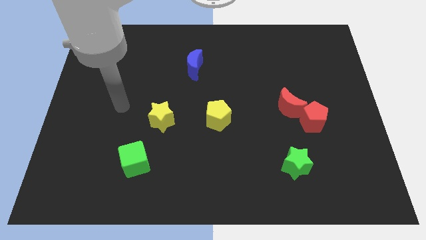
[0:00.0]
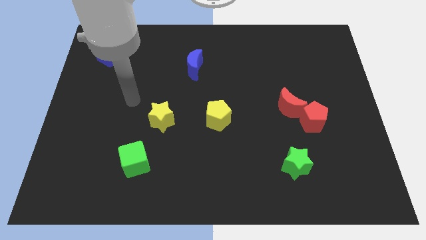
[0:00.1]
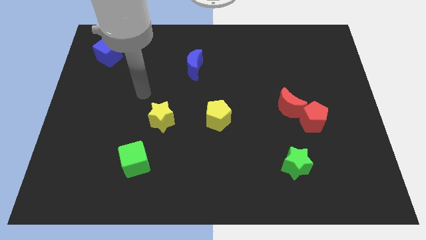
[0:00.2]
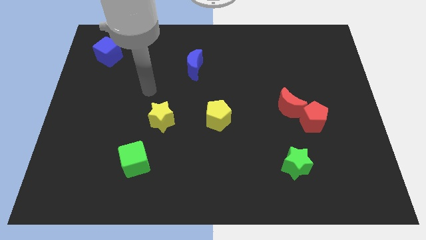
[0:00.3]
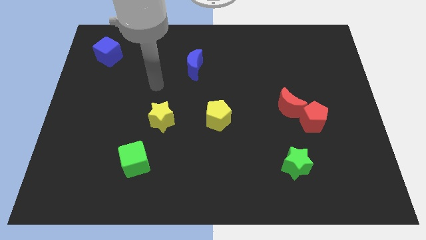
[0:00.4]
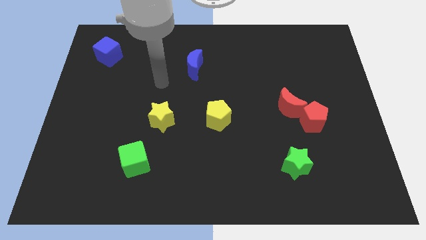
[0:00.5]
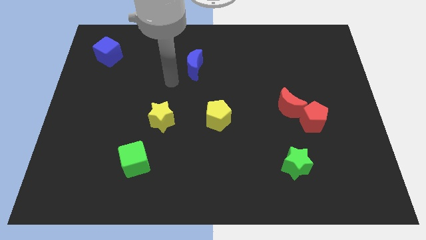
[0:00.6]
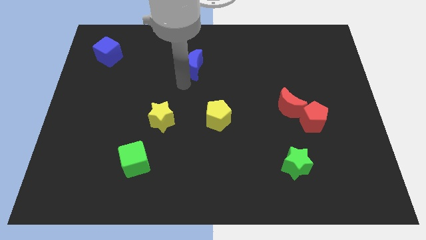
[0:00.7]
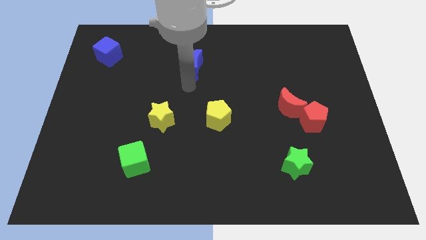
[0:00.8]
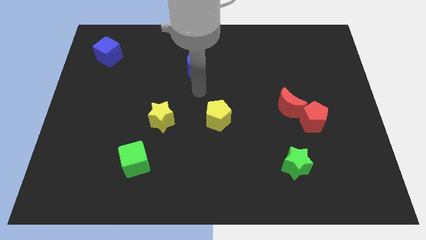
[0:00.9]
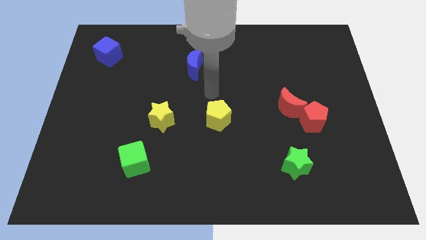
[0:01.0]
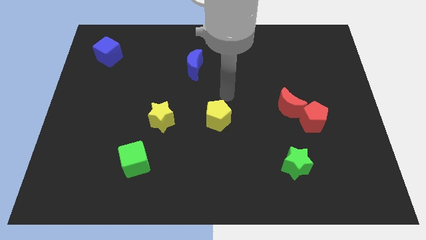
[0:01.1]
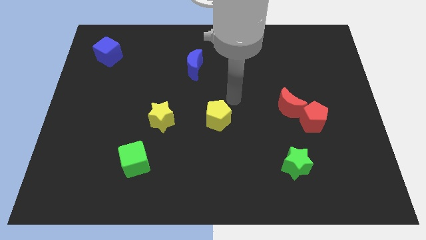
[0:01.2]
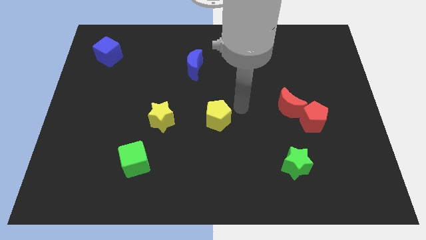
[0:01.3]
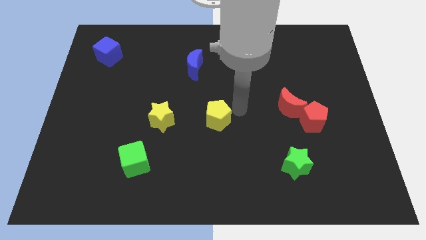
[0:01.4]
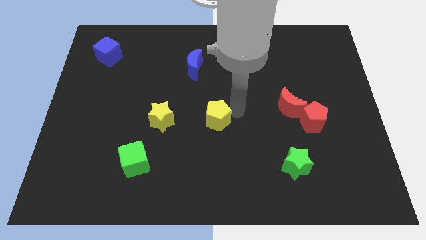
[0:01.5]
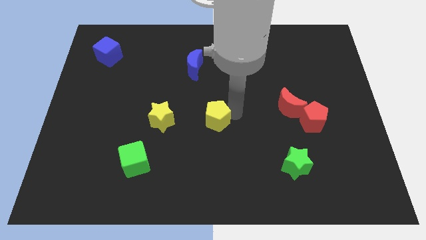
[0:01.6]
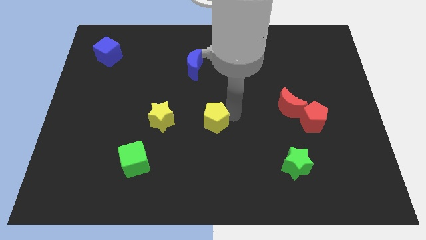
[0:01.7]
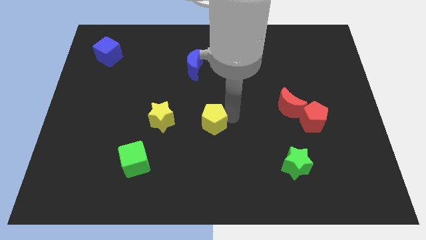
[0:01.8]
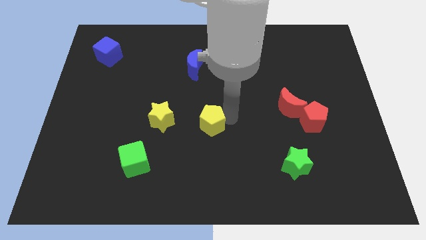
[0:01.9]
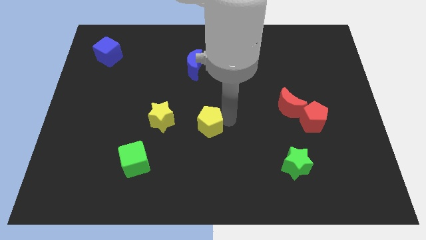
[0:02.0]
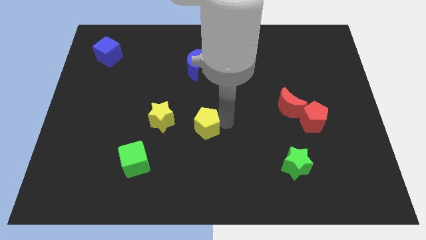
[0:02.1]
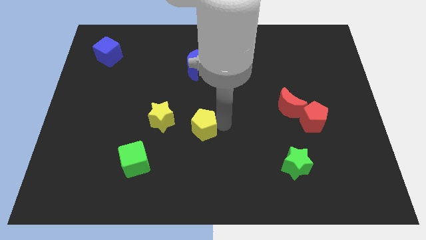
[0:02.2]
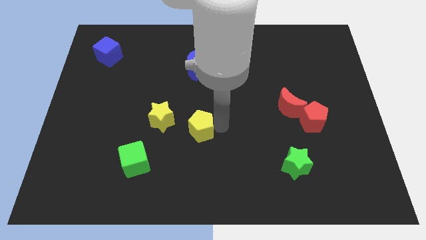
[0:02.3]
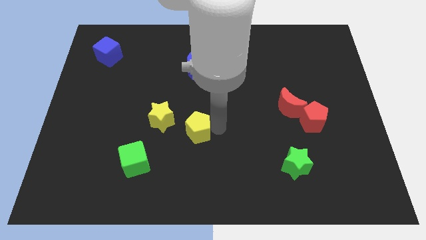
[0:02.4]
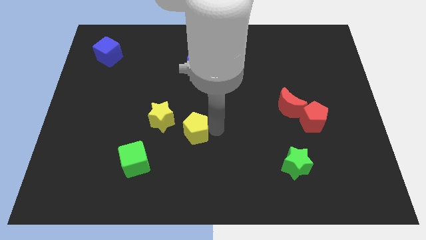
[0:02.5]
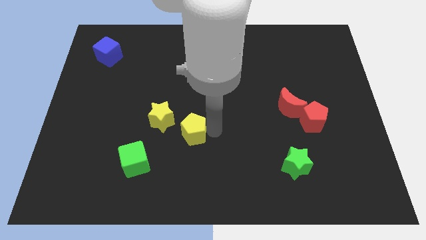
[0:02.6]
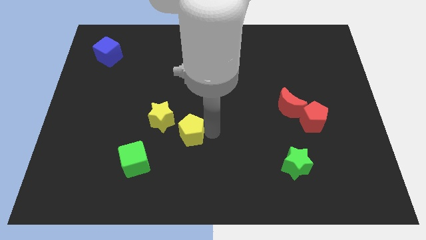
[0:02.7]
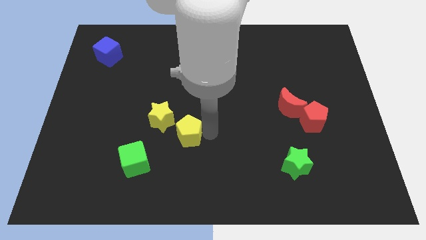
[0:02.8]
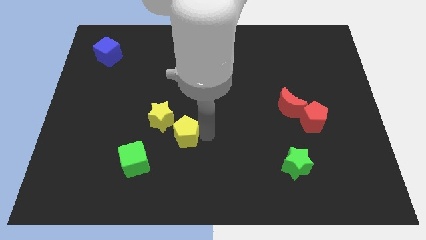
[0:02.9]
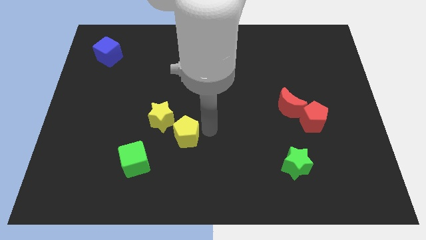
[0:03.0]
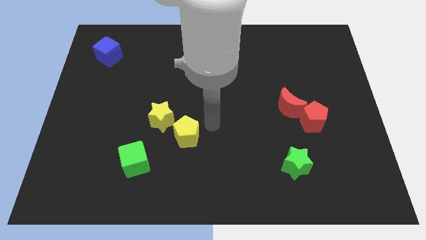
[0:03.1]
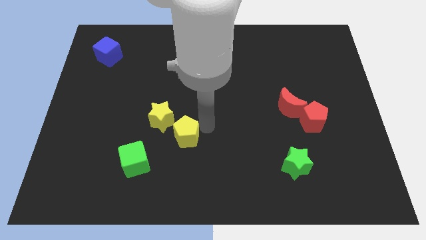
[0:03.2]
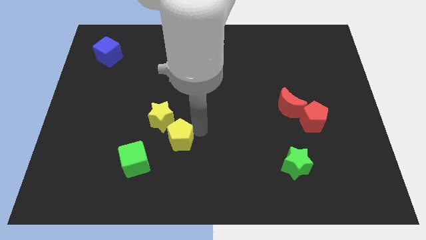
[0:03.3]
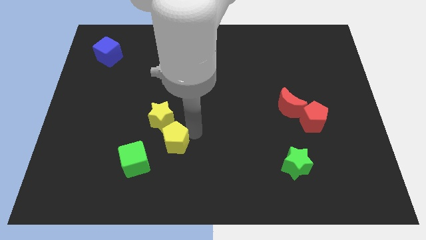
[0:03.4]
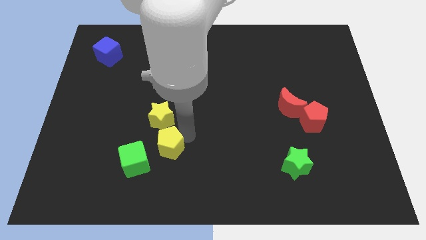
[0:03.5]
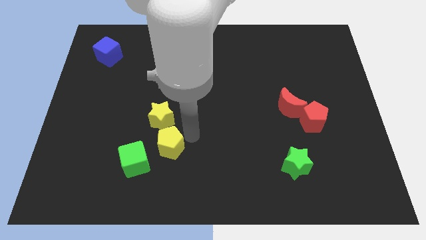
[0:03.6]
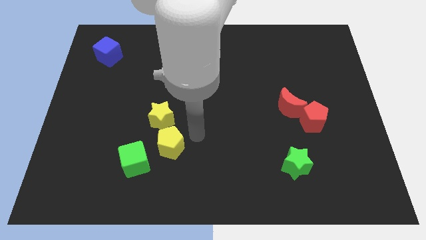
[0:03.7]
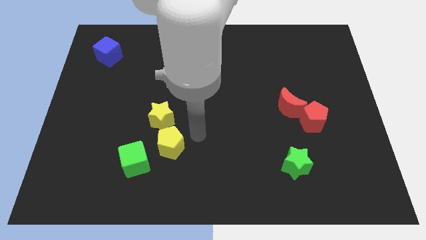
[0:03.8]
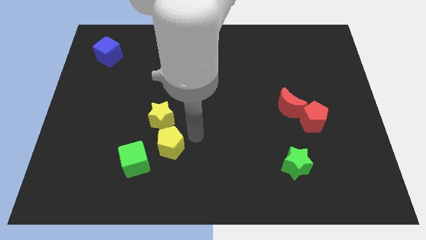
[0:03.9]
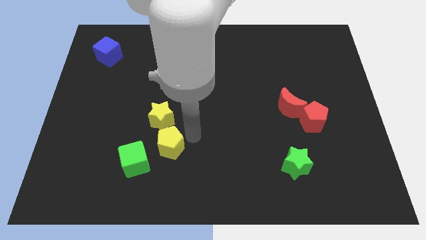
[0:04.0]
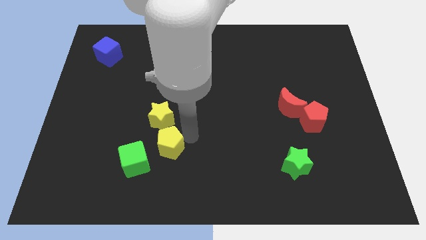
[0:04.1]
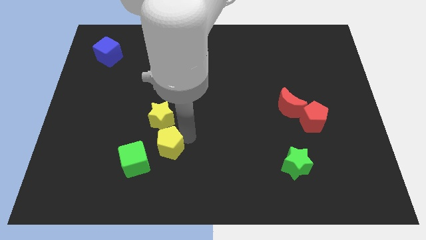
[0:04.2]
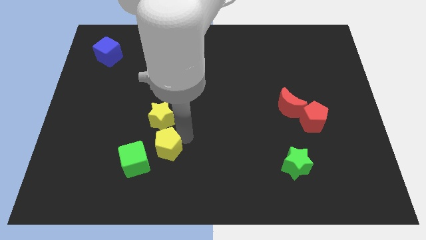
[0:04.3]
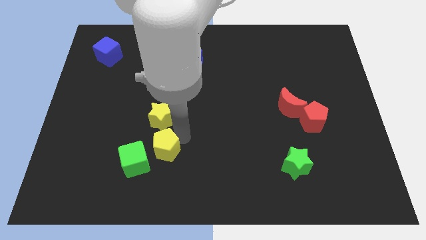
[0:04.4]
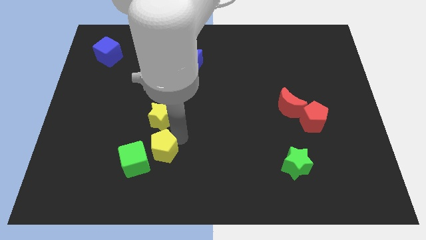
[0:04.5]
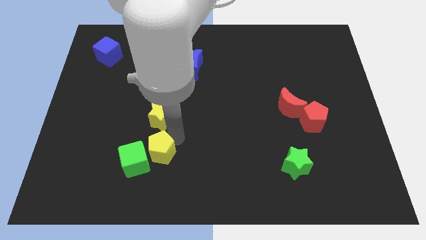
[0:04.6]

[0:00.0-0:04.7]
push the yellow pentagon to the green cube

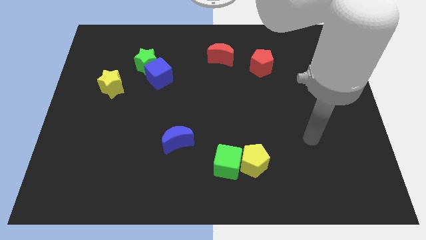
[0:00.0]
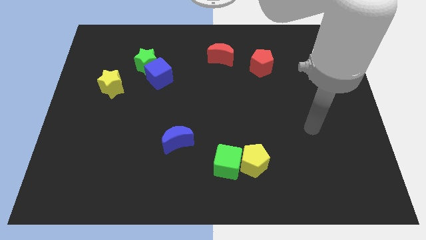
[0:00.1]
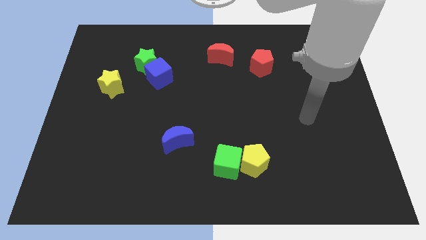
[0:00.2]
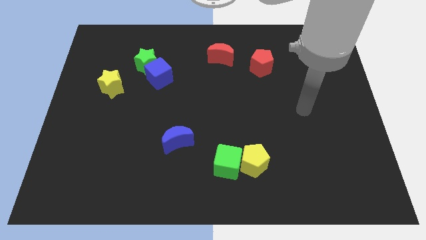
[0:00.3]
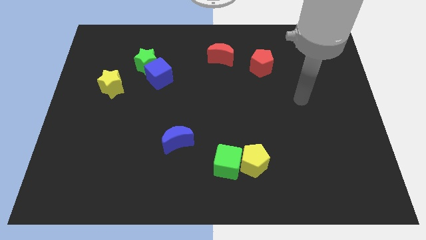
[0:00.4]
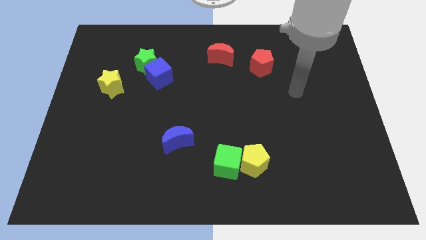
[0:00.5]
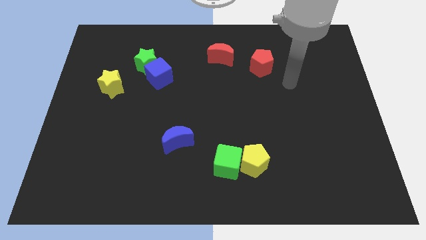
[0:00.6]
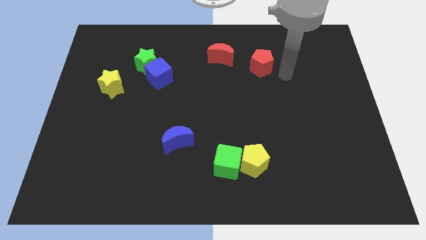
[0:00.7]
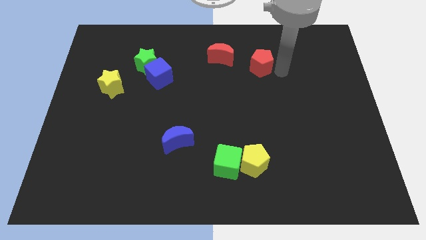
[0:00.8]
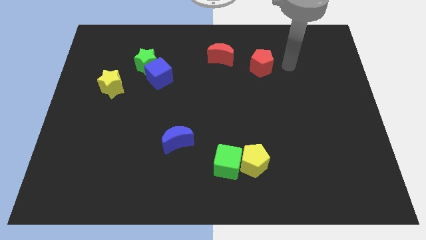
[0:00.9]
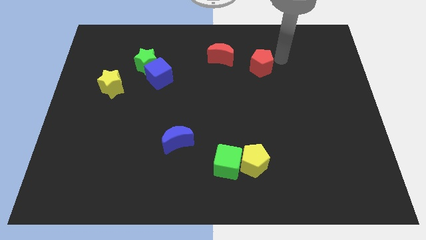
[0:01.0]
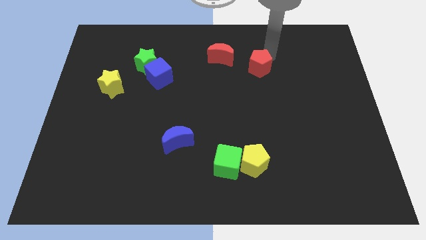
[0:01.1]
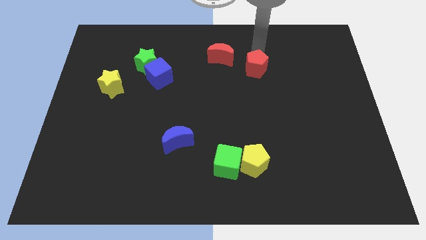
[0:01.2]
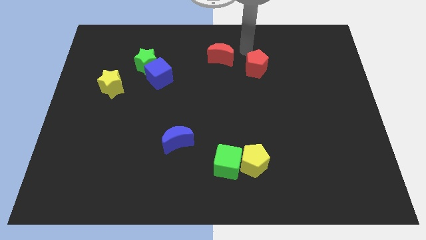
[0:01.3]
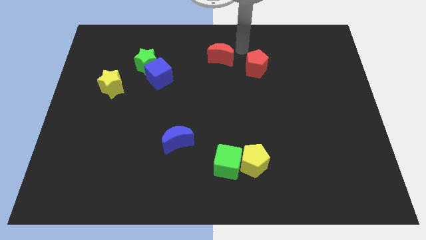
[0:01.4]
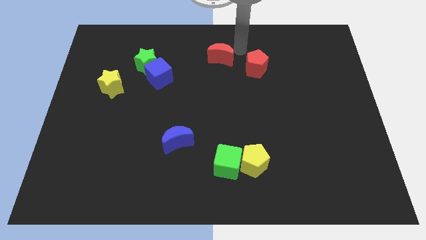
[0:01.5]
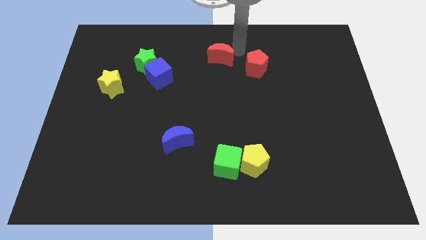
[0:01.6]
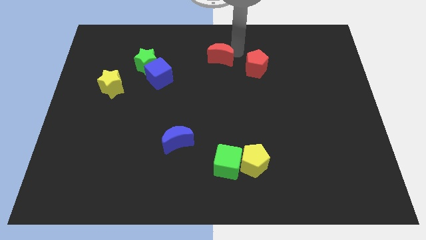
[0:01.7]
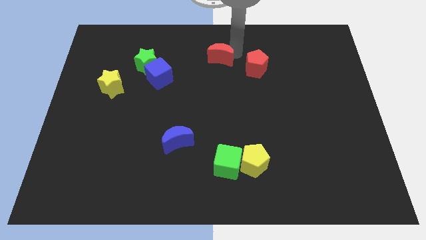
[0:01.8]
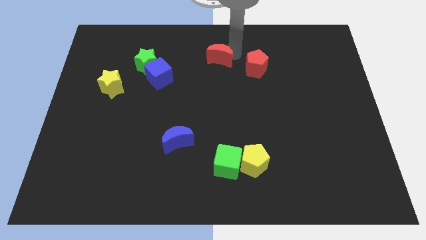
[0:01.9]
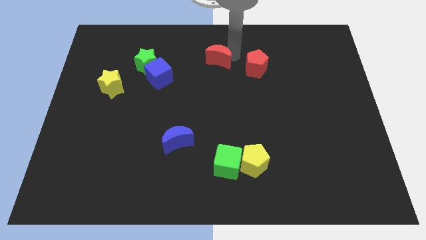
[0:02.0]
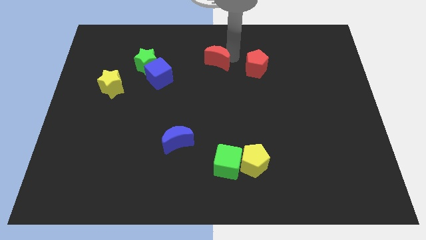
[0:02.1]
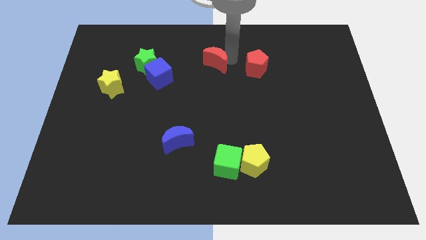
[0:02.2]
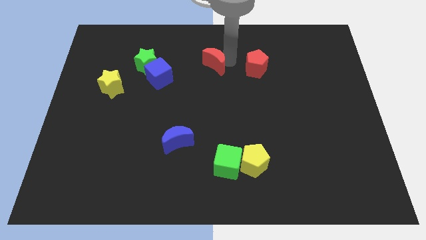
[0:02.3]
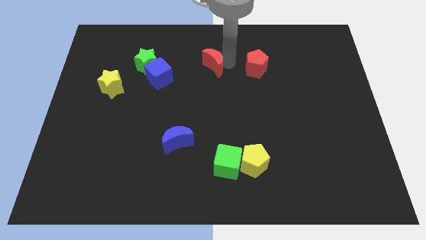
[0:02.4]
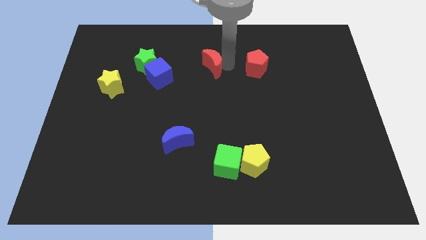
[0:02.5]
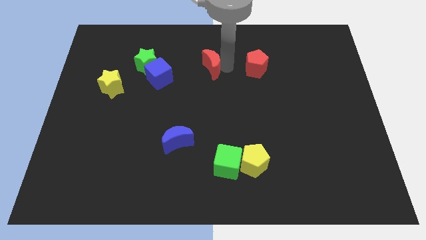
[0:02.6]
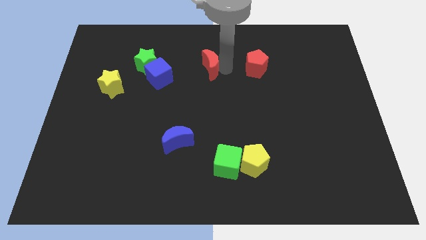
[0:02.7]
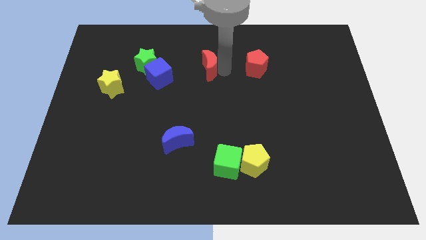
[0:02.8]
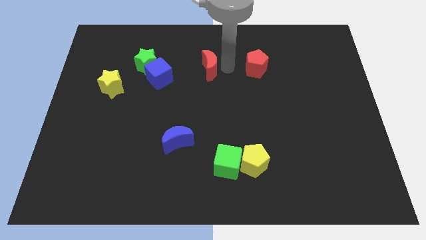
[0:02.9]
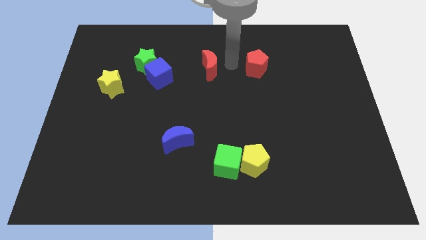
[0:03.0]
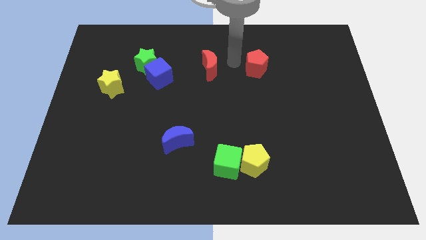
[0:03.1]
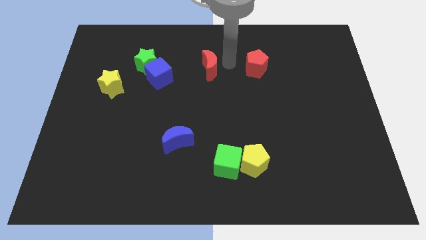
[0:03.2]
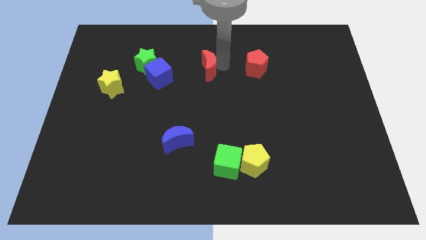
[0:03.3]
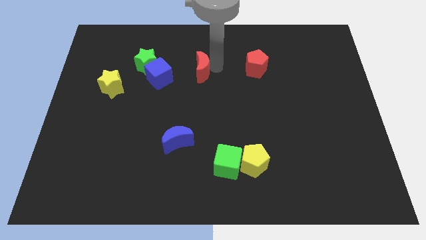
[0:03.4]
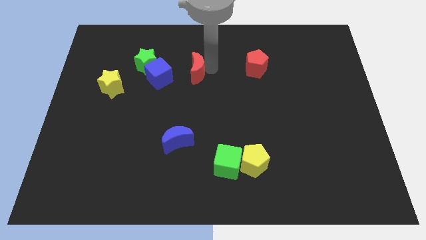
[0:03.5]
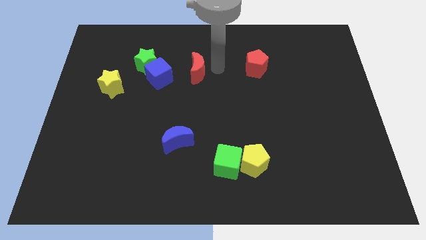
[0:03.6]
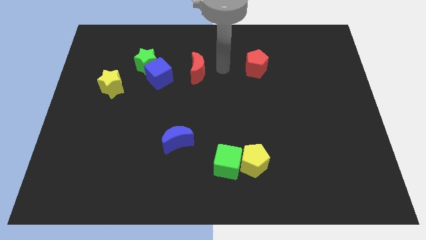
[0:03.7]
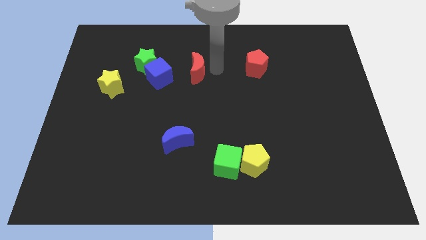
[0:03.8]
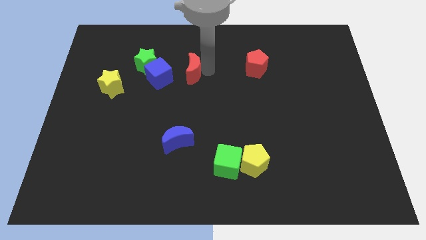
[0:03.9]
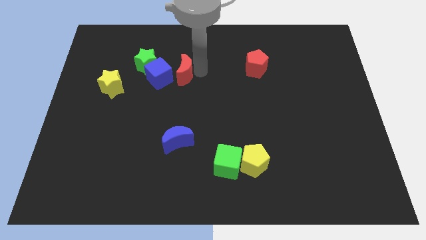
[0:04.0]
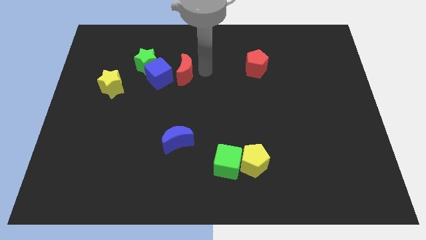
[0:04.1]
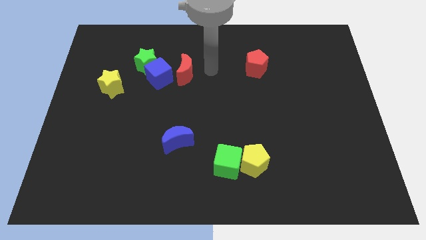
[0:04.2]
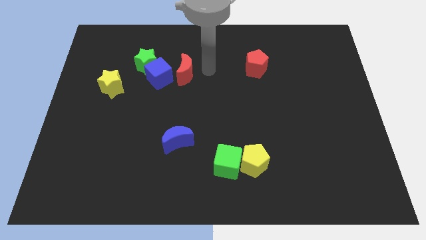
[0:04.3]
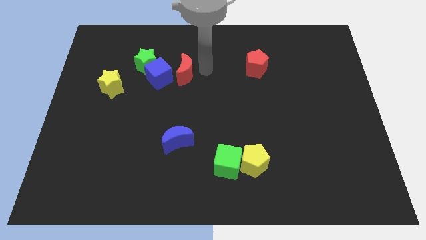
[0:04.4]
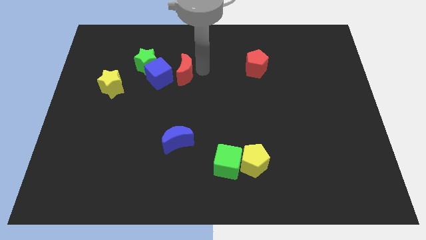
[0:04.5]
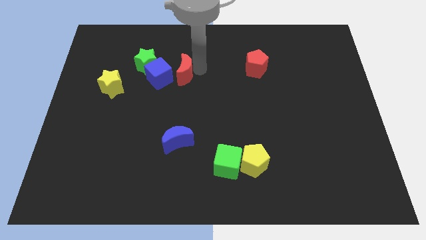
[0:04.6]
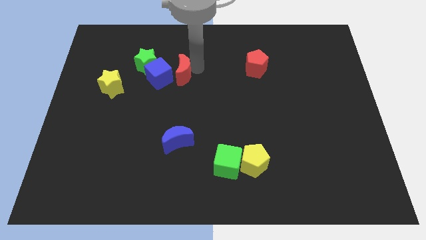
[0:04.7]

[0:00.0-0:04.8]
slide the red moon towards the blue cube
